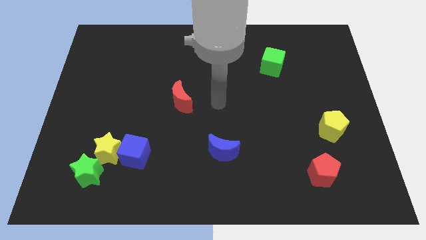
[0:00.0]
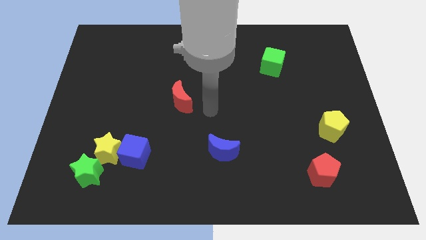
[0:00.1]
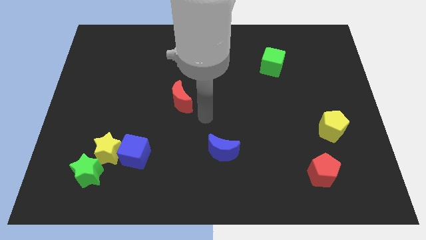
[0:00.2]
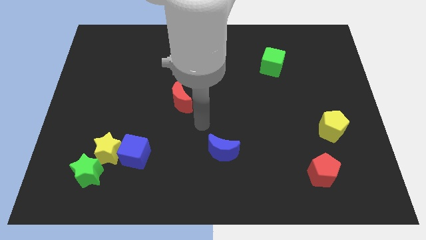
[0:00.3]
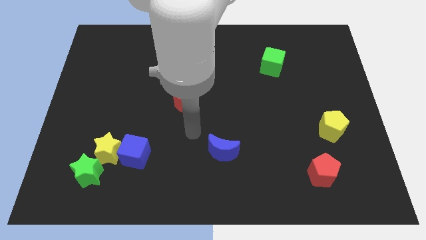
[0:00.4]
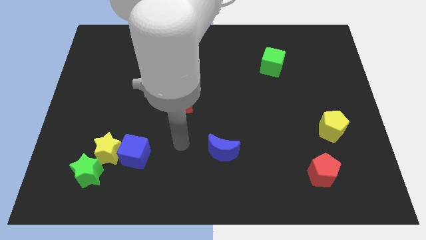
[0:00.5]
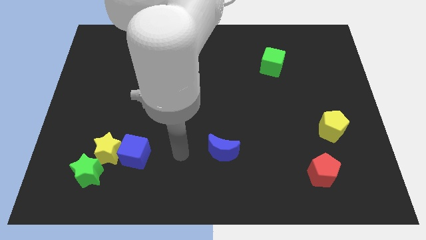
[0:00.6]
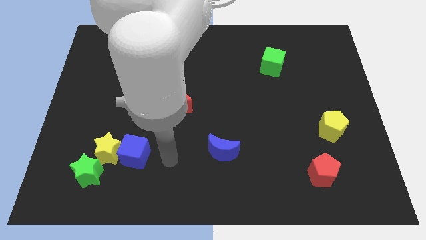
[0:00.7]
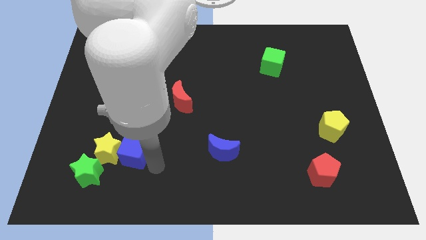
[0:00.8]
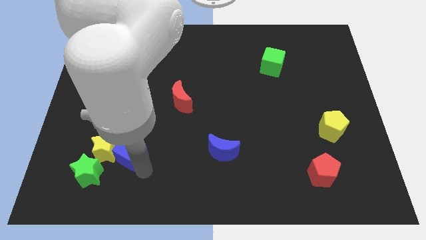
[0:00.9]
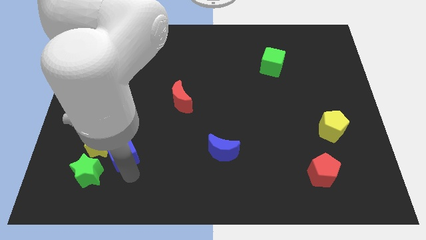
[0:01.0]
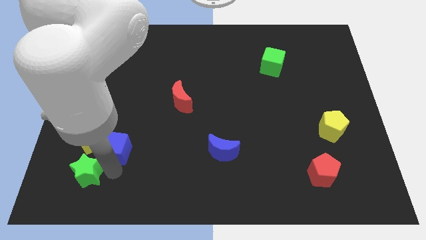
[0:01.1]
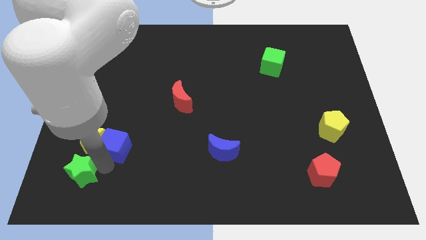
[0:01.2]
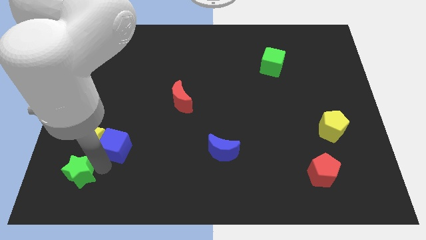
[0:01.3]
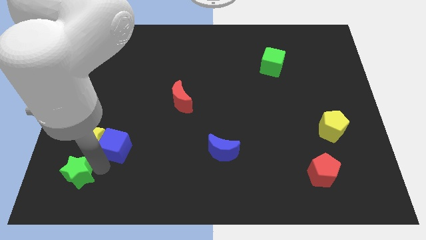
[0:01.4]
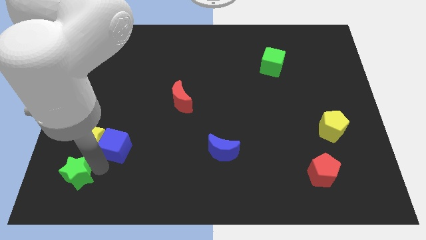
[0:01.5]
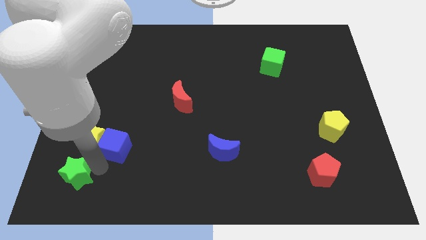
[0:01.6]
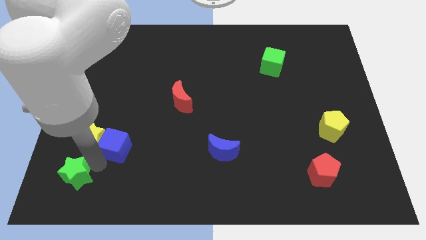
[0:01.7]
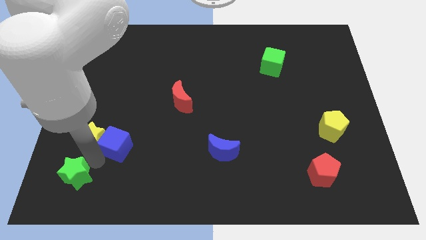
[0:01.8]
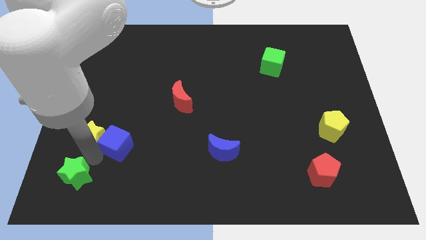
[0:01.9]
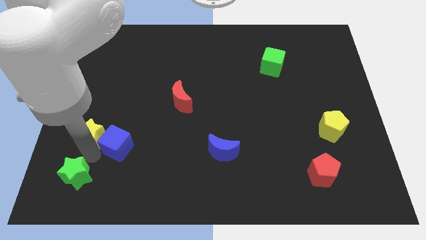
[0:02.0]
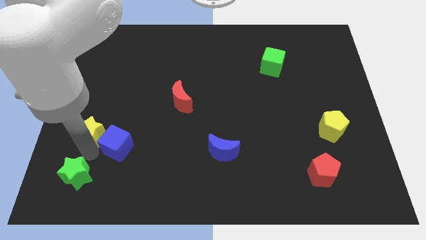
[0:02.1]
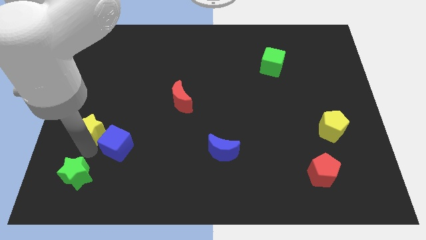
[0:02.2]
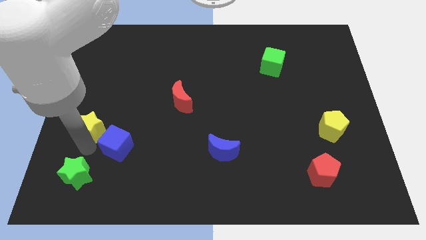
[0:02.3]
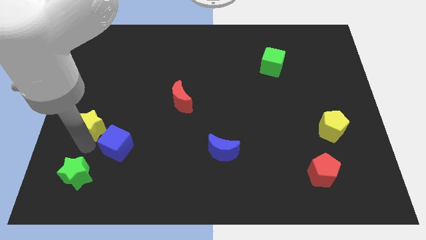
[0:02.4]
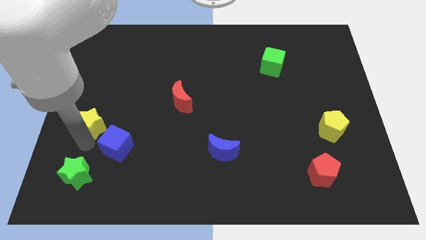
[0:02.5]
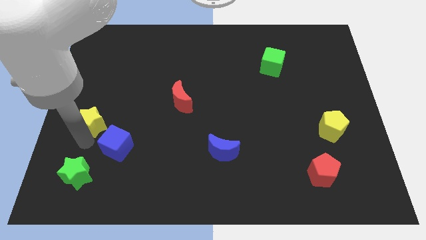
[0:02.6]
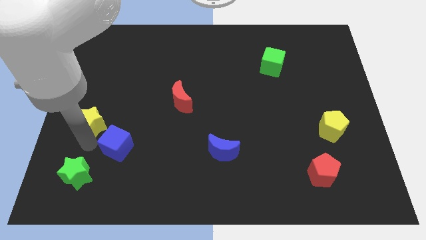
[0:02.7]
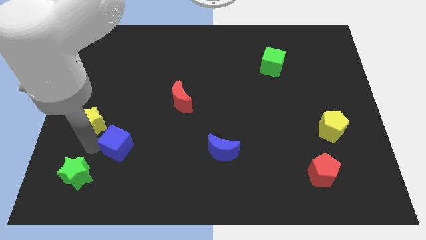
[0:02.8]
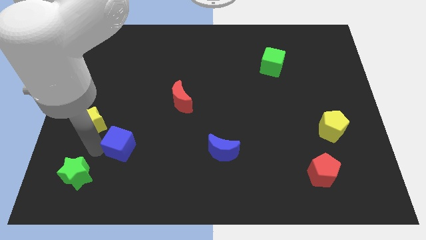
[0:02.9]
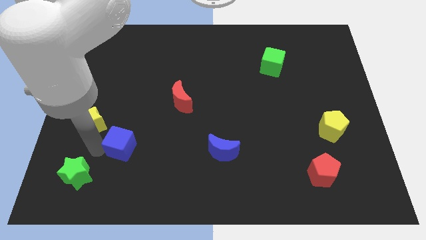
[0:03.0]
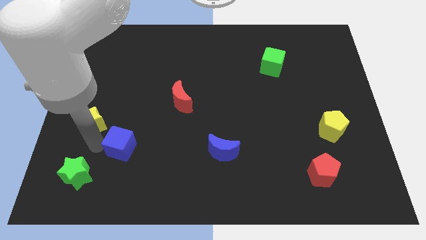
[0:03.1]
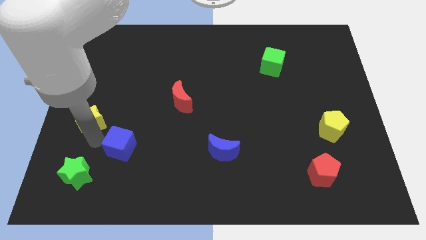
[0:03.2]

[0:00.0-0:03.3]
pull the yellow star apart from the blue cube and green star

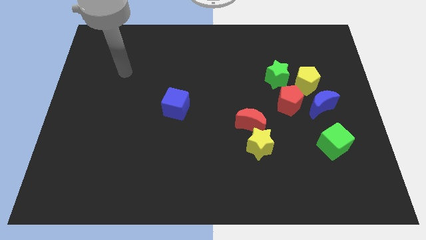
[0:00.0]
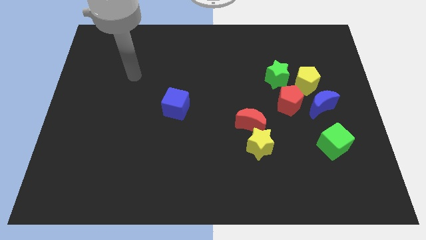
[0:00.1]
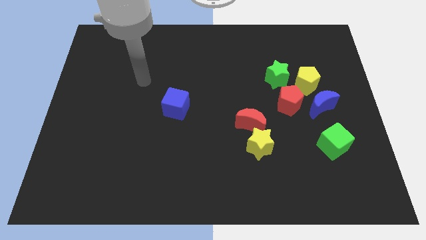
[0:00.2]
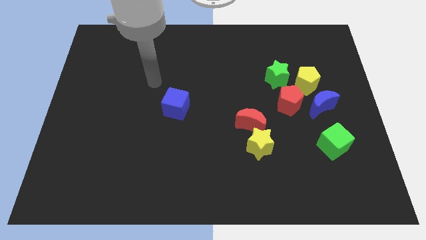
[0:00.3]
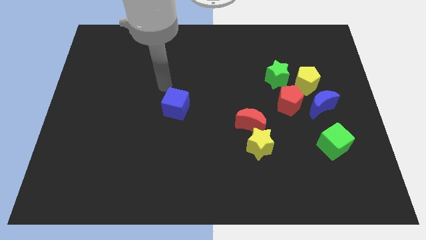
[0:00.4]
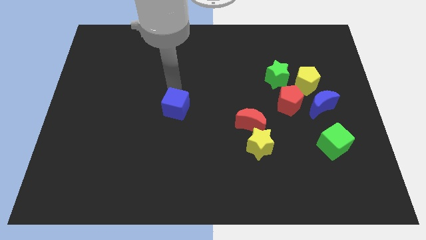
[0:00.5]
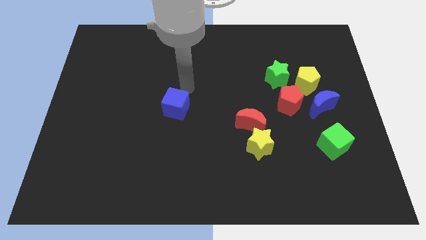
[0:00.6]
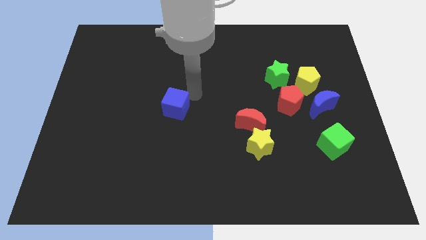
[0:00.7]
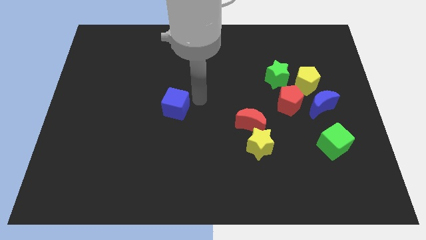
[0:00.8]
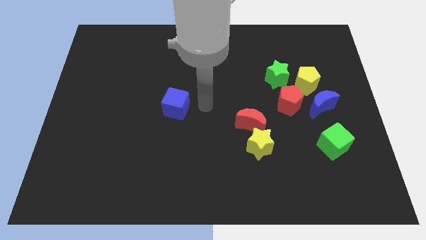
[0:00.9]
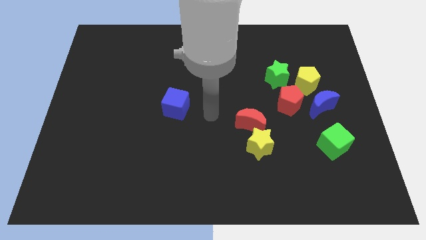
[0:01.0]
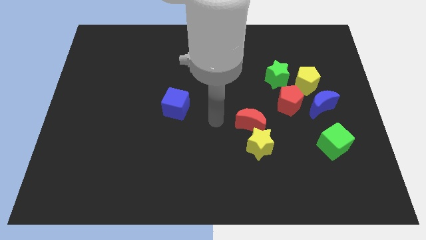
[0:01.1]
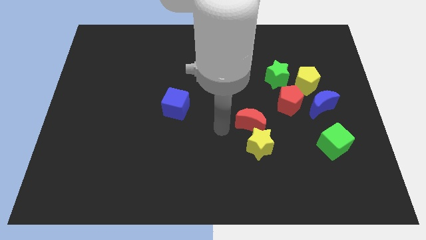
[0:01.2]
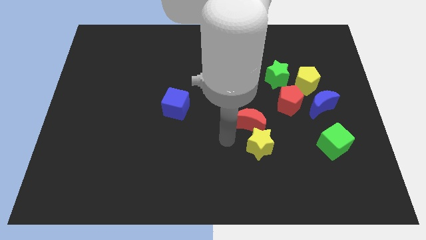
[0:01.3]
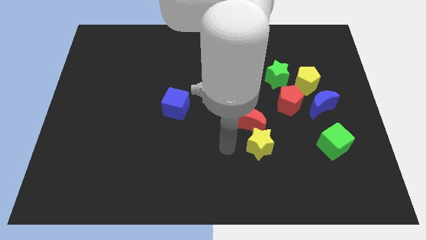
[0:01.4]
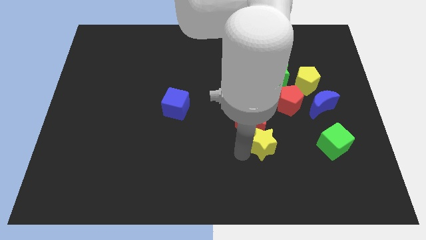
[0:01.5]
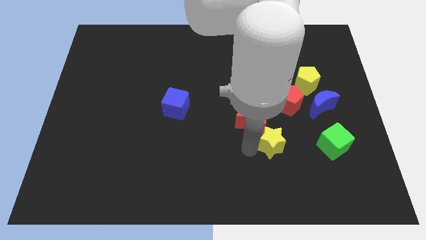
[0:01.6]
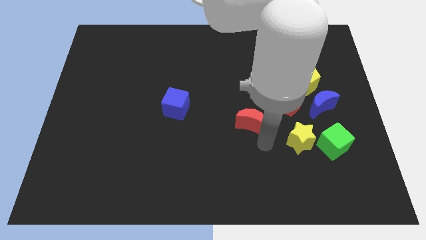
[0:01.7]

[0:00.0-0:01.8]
pull the red moon apart from the yellow star

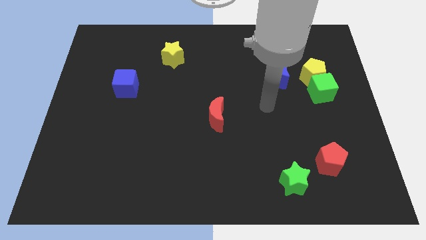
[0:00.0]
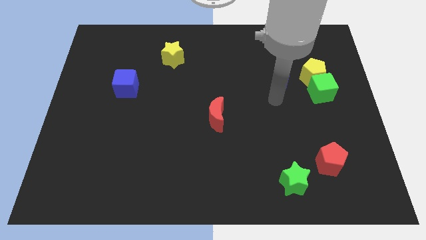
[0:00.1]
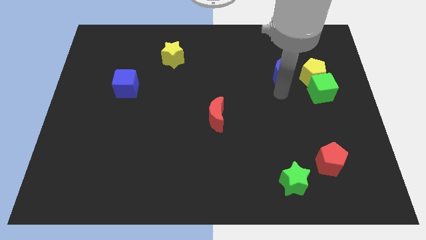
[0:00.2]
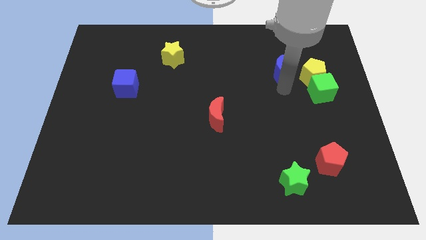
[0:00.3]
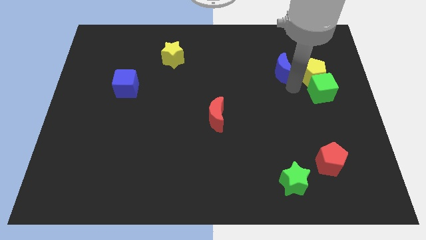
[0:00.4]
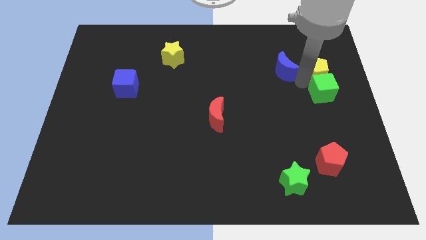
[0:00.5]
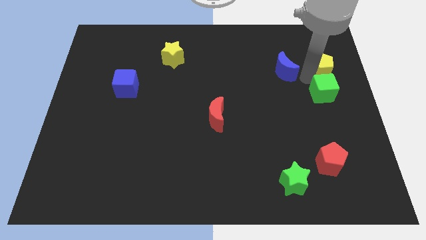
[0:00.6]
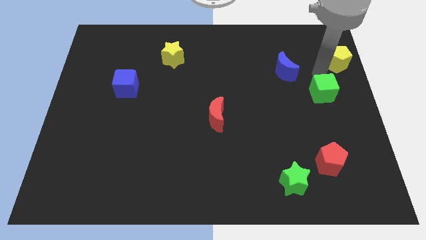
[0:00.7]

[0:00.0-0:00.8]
move the green cube away from the yellow pentagon

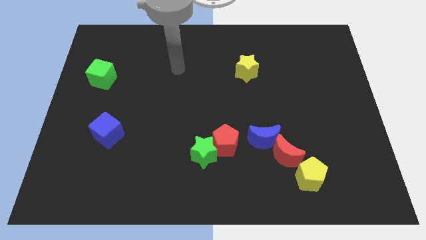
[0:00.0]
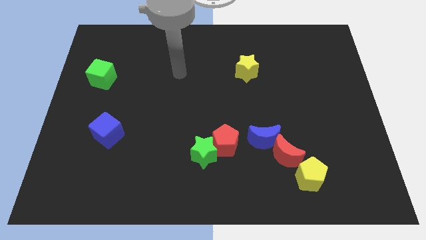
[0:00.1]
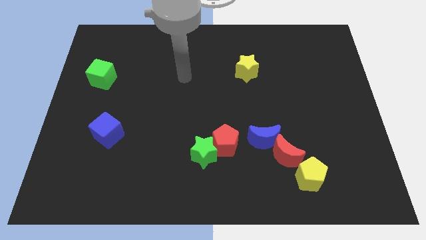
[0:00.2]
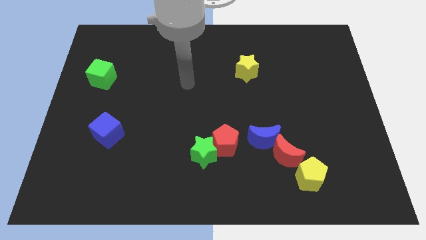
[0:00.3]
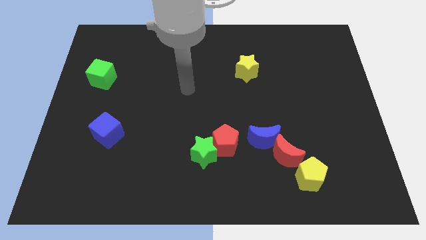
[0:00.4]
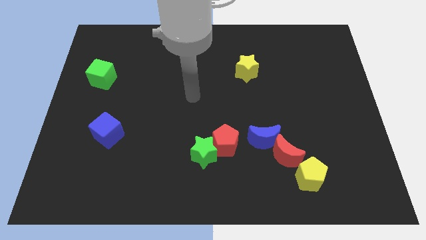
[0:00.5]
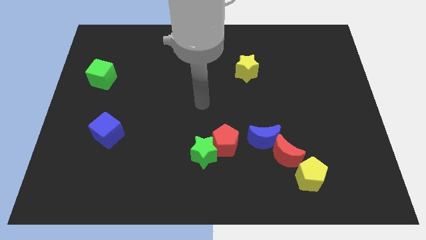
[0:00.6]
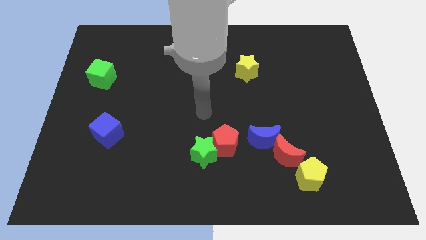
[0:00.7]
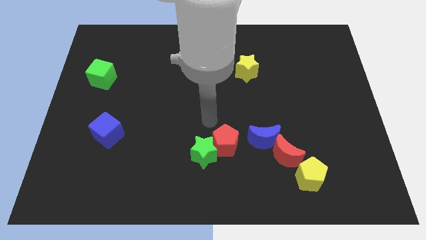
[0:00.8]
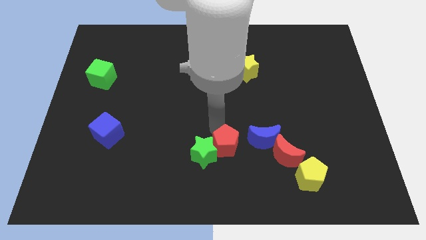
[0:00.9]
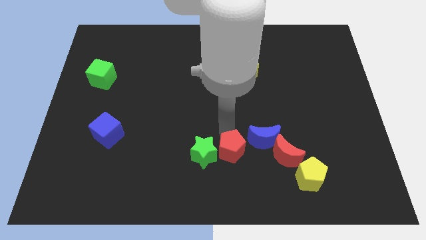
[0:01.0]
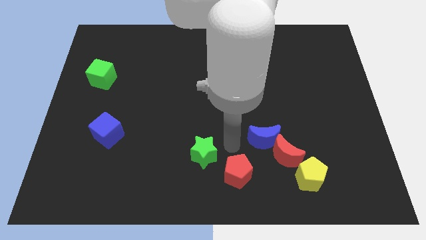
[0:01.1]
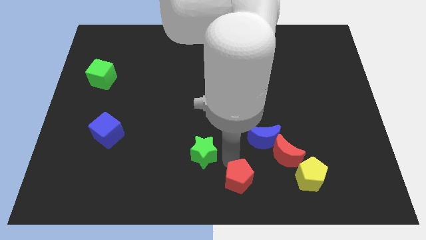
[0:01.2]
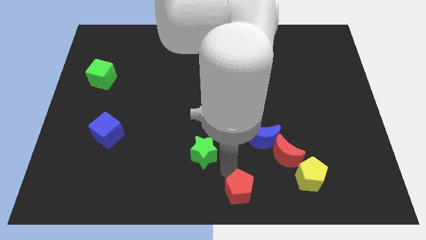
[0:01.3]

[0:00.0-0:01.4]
move the green star away from the red pentagon

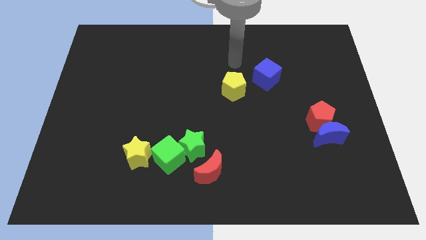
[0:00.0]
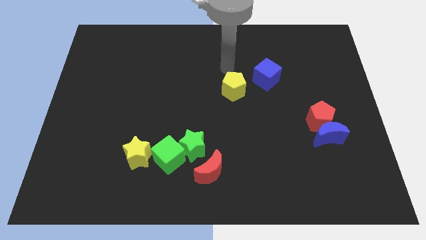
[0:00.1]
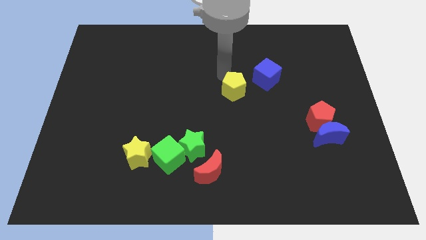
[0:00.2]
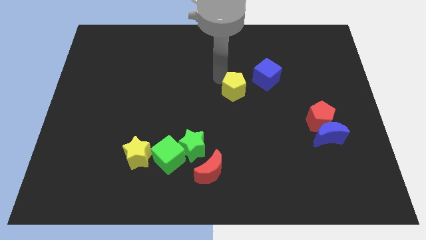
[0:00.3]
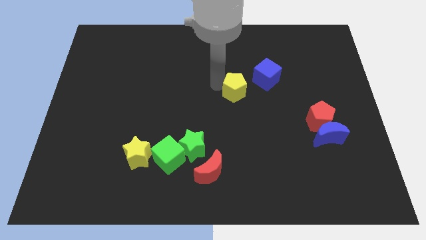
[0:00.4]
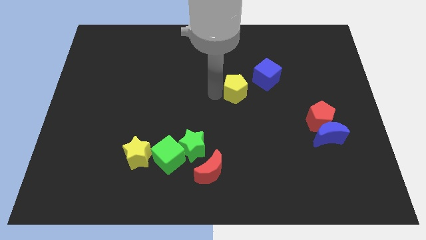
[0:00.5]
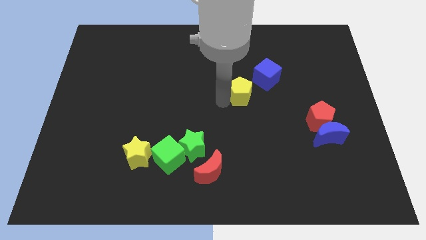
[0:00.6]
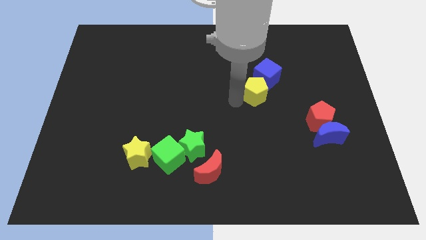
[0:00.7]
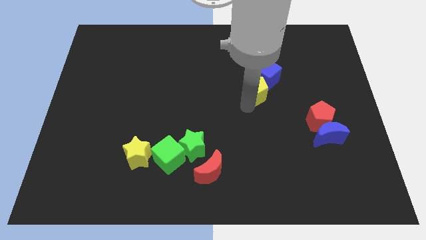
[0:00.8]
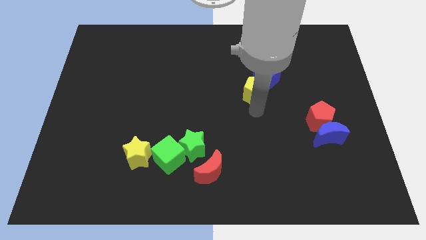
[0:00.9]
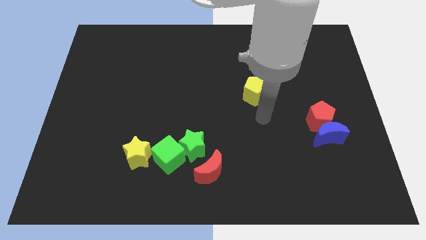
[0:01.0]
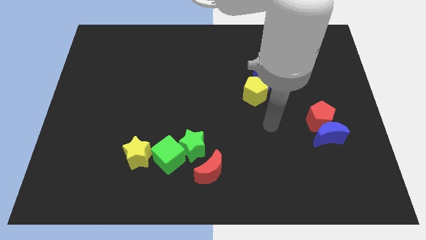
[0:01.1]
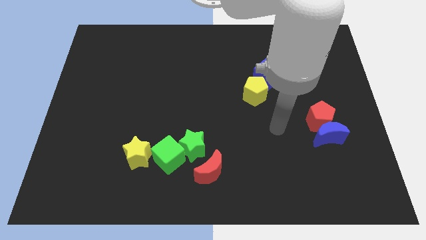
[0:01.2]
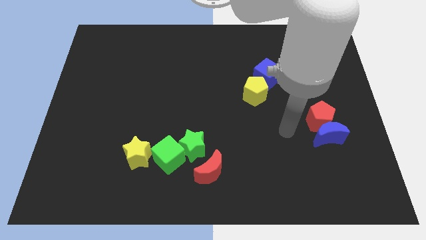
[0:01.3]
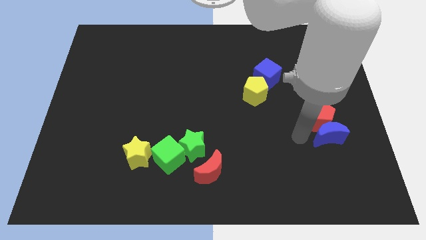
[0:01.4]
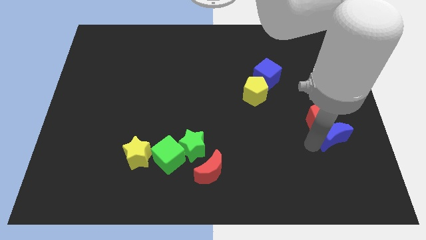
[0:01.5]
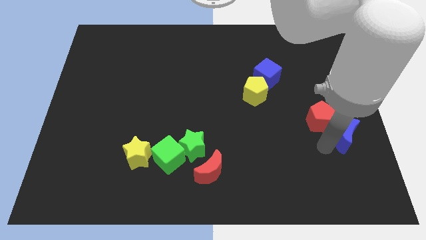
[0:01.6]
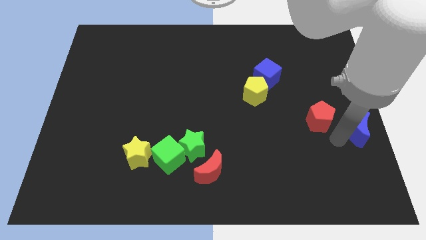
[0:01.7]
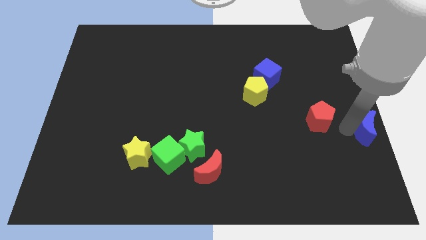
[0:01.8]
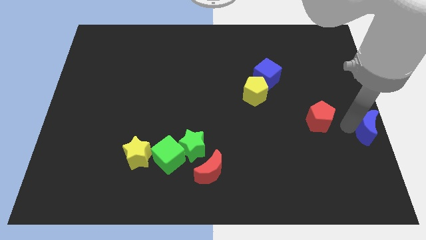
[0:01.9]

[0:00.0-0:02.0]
pull the red pentagon apart from the blue moon
